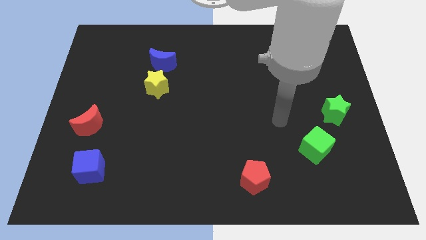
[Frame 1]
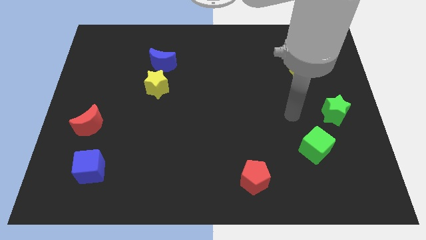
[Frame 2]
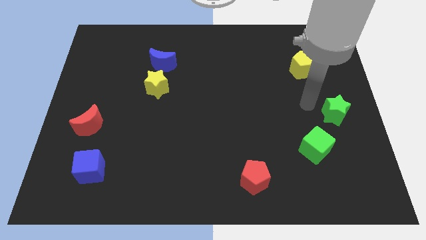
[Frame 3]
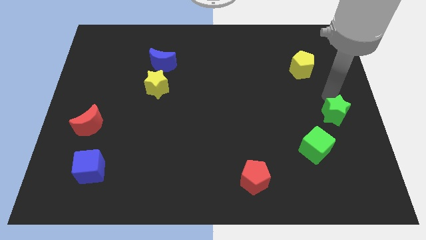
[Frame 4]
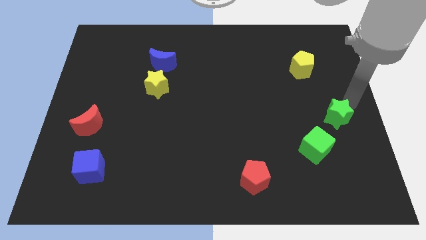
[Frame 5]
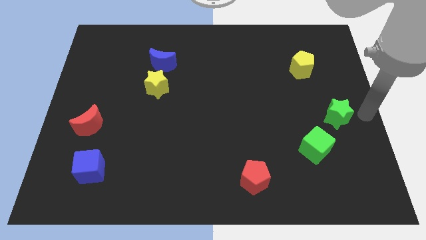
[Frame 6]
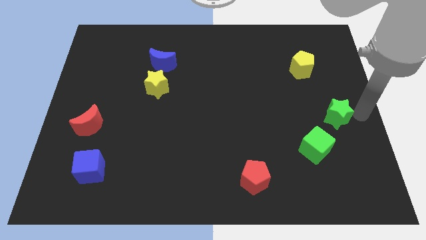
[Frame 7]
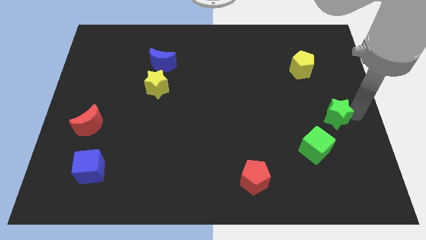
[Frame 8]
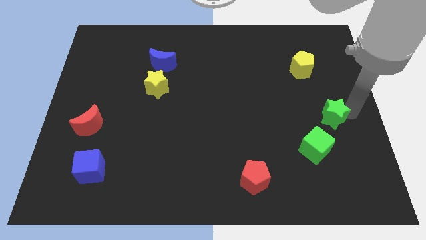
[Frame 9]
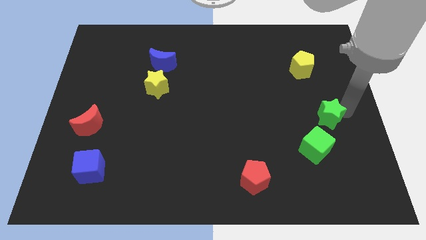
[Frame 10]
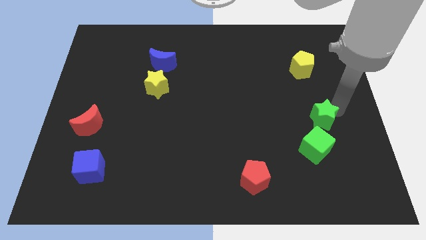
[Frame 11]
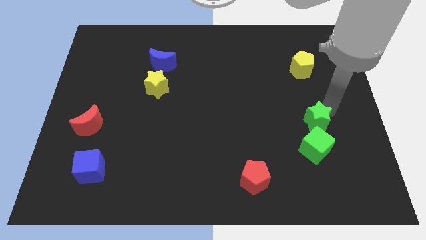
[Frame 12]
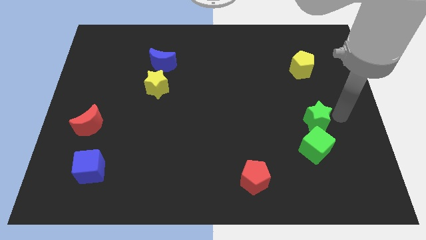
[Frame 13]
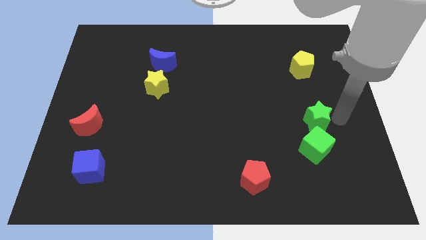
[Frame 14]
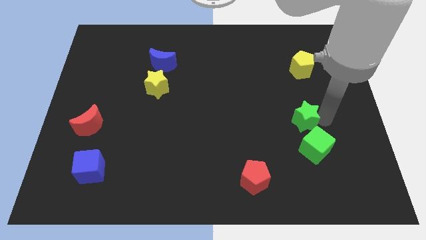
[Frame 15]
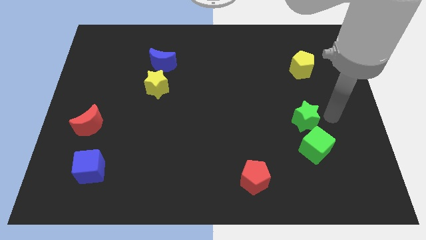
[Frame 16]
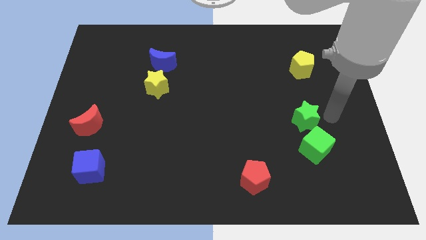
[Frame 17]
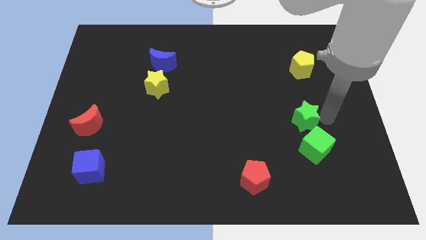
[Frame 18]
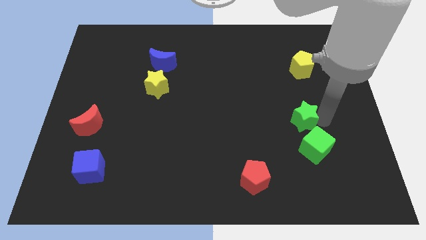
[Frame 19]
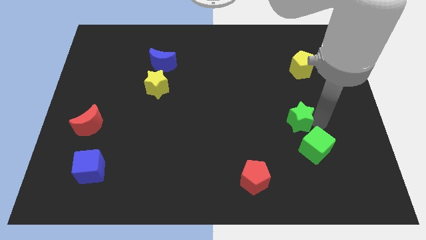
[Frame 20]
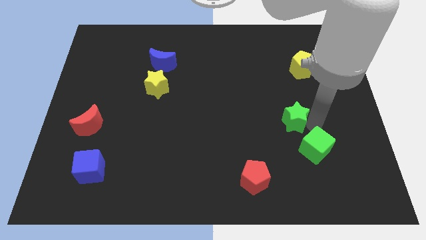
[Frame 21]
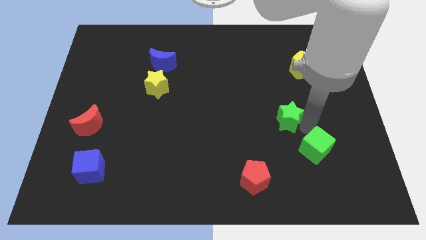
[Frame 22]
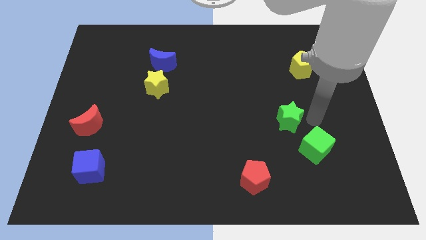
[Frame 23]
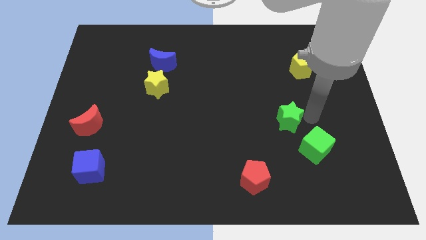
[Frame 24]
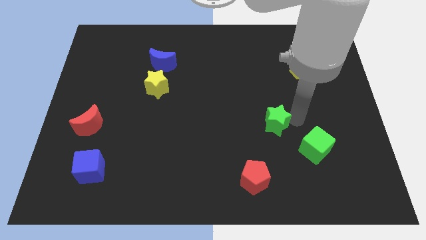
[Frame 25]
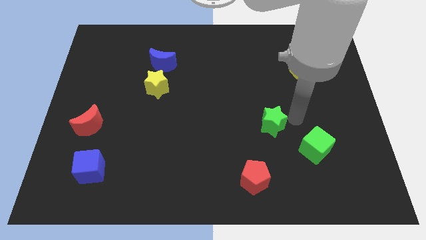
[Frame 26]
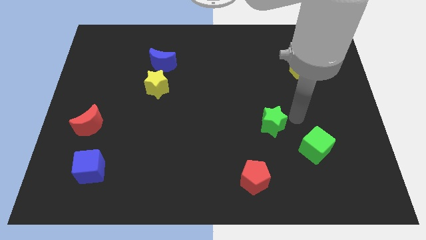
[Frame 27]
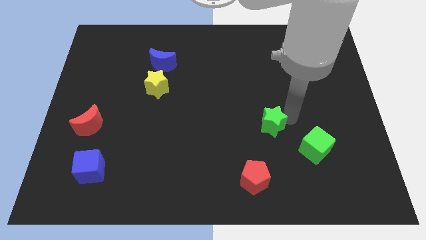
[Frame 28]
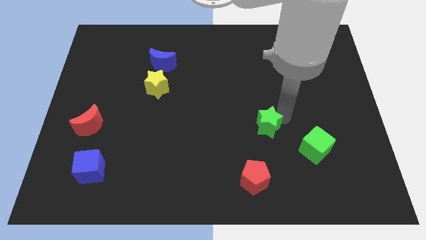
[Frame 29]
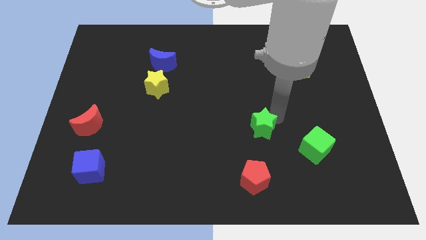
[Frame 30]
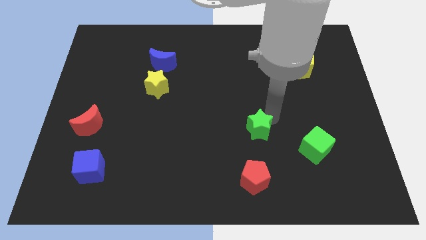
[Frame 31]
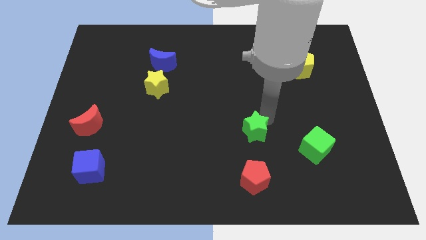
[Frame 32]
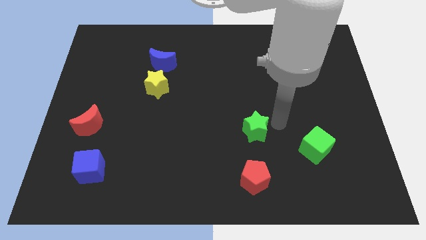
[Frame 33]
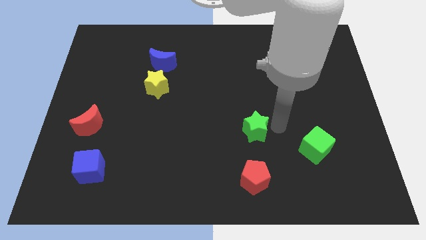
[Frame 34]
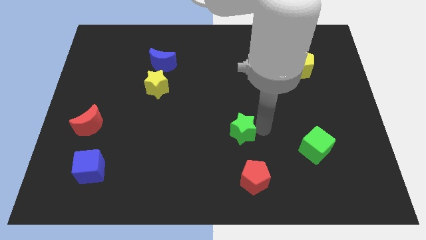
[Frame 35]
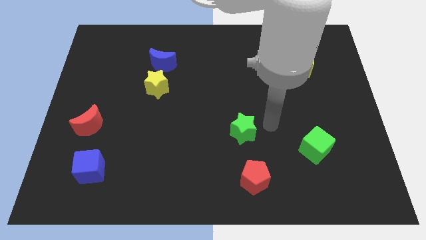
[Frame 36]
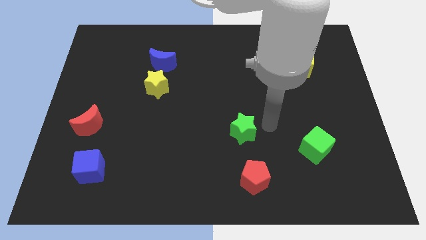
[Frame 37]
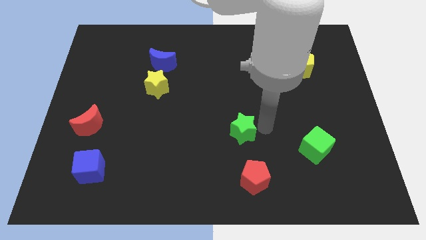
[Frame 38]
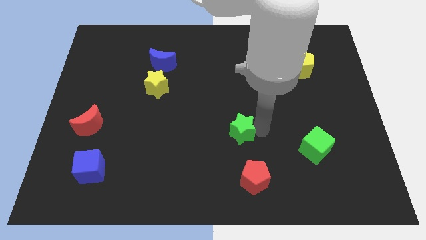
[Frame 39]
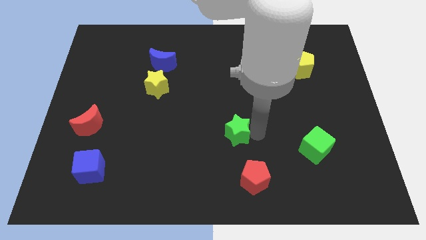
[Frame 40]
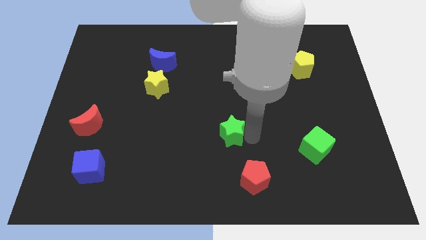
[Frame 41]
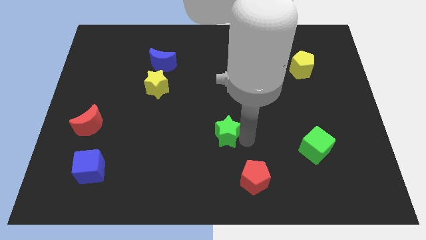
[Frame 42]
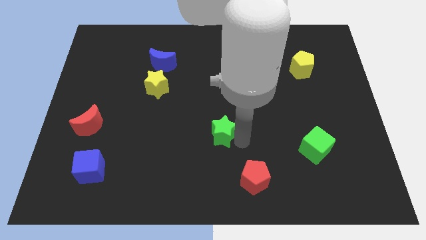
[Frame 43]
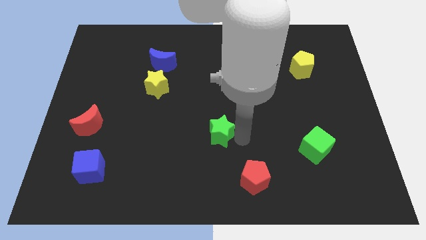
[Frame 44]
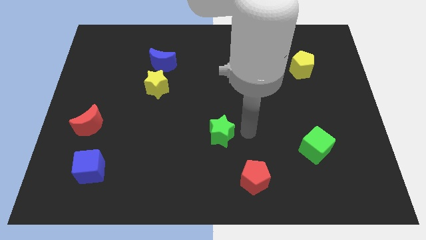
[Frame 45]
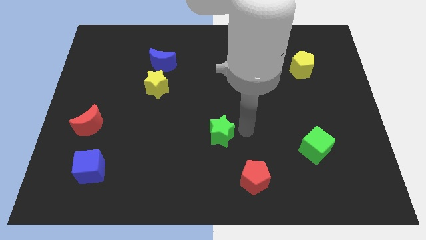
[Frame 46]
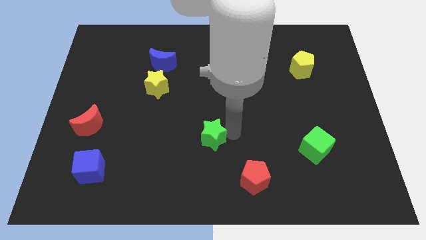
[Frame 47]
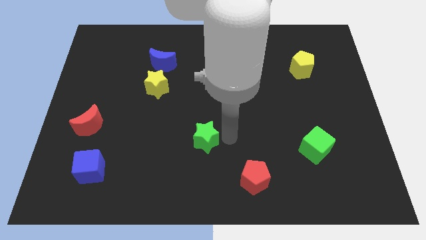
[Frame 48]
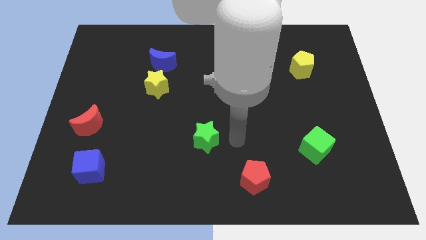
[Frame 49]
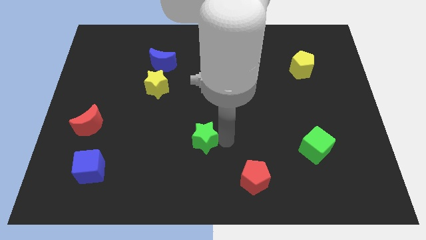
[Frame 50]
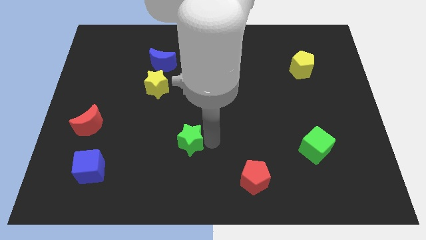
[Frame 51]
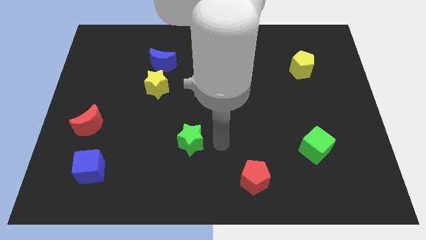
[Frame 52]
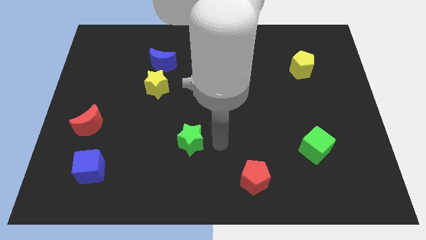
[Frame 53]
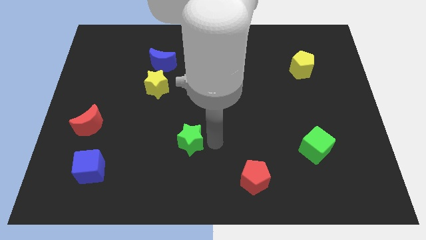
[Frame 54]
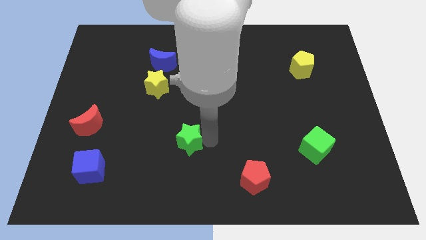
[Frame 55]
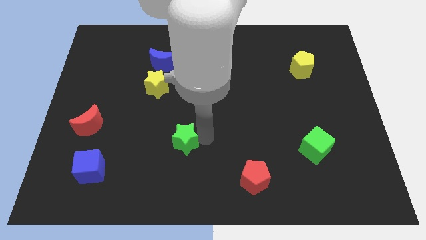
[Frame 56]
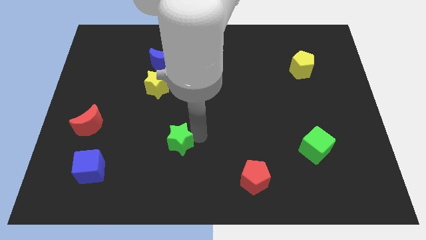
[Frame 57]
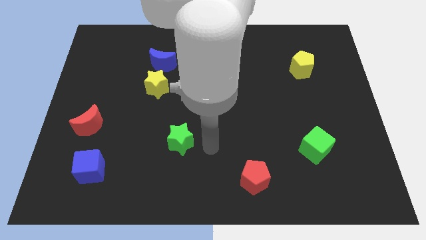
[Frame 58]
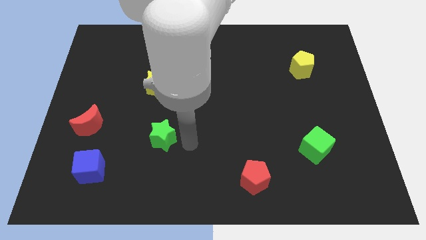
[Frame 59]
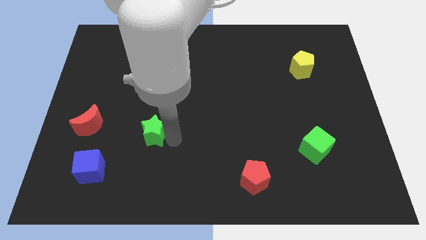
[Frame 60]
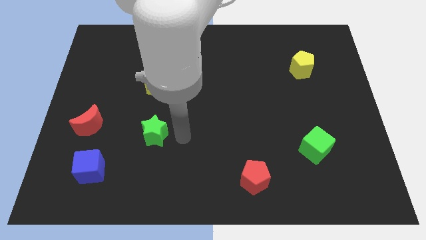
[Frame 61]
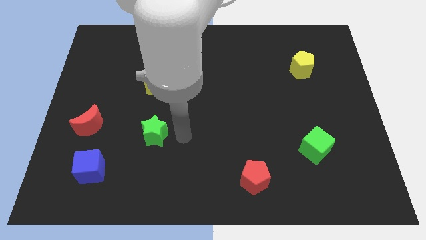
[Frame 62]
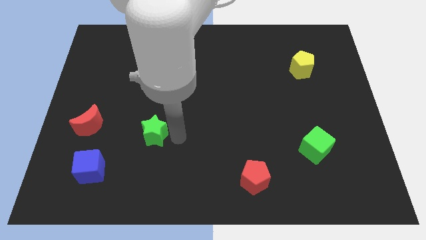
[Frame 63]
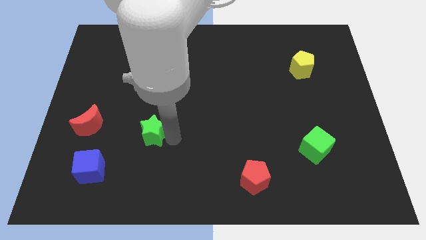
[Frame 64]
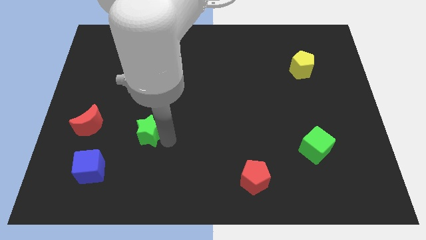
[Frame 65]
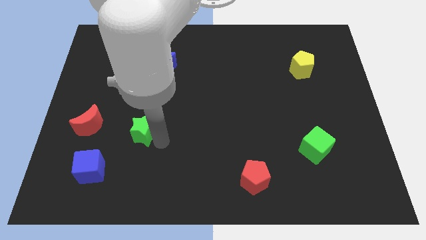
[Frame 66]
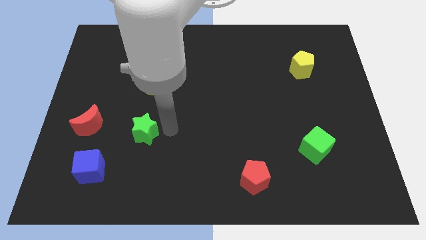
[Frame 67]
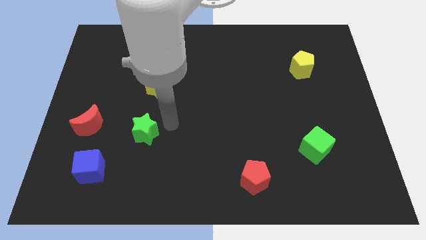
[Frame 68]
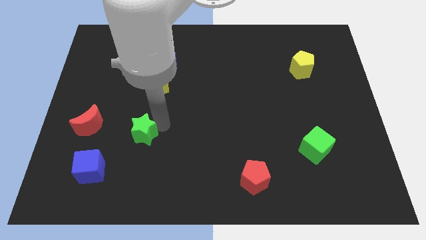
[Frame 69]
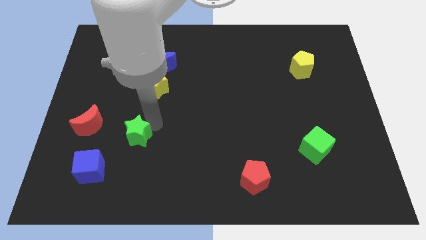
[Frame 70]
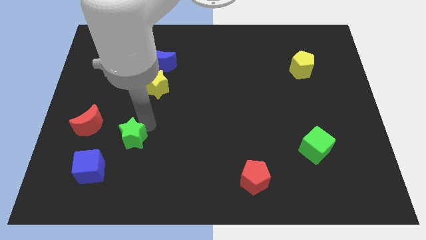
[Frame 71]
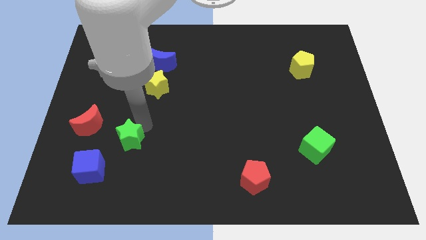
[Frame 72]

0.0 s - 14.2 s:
slide the green star diagonally down and to the right of the red moon

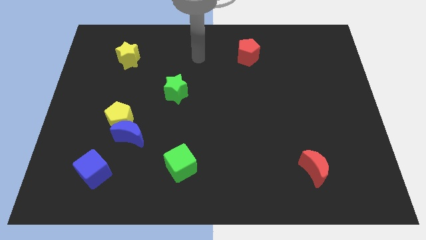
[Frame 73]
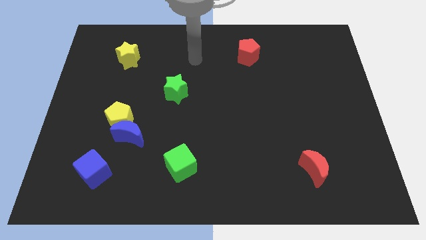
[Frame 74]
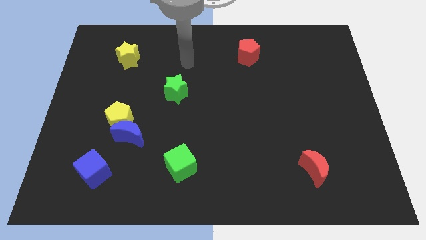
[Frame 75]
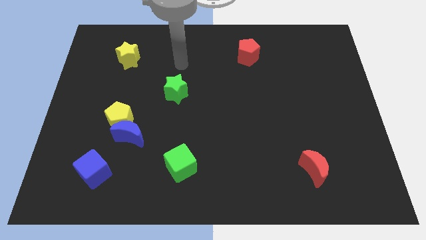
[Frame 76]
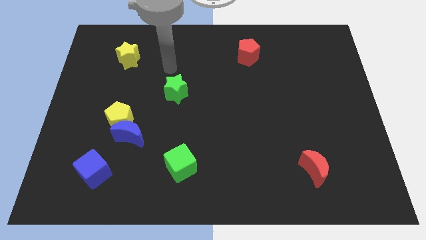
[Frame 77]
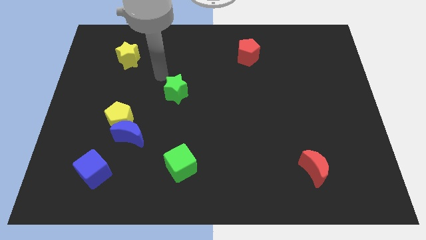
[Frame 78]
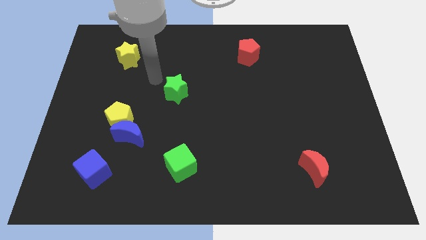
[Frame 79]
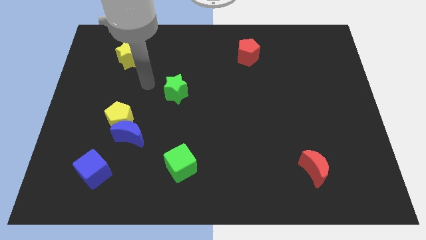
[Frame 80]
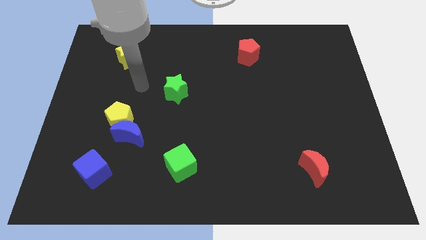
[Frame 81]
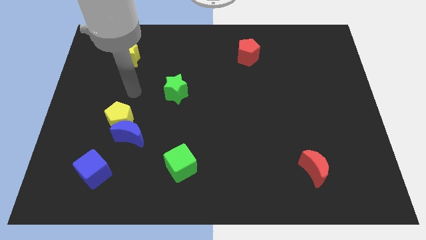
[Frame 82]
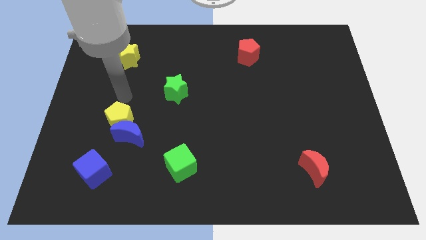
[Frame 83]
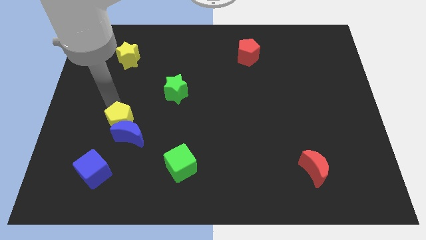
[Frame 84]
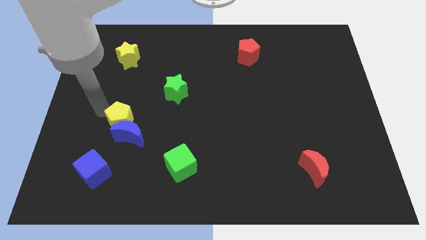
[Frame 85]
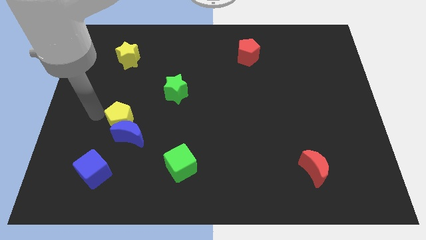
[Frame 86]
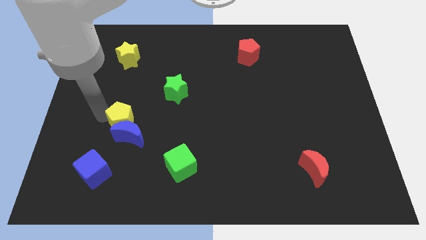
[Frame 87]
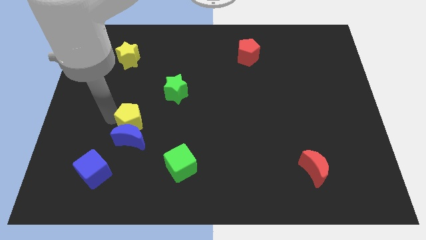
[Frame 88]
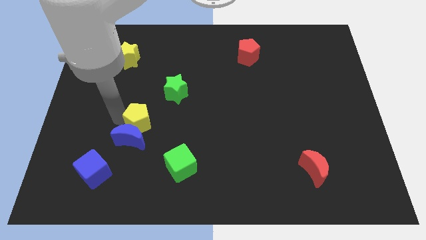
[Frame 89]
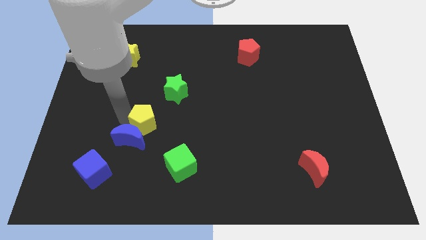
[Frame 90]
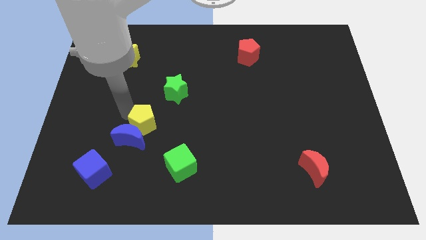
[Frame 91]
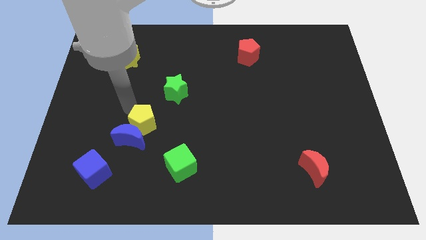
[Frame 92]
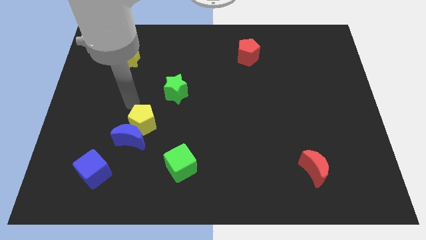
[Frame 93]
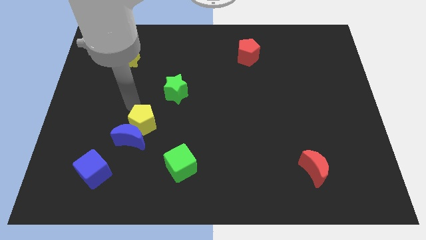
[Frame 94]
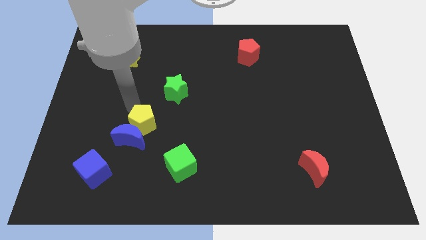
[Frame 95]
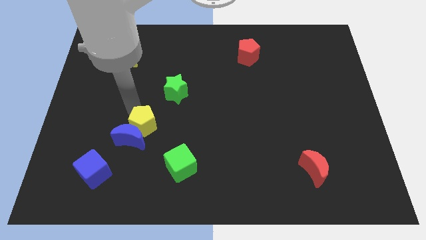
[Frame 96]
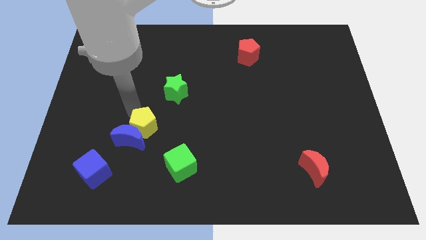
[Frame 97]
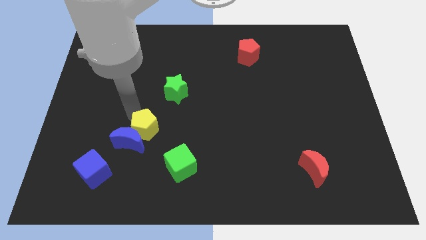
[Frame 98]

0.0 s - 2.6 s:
put the yellow pentagon diagonally up and to the left of the green cube
